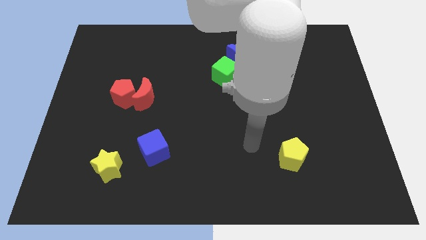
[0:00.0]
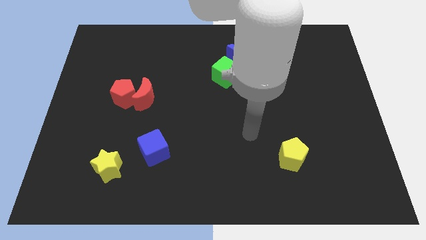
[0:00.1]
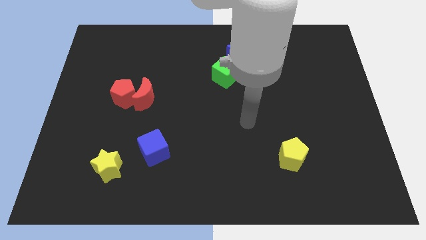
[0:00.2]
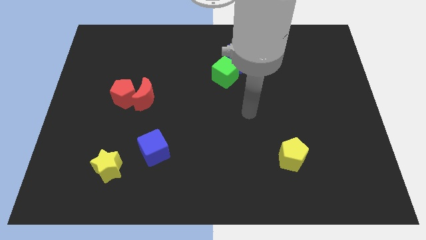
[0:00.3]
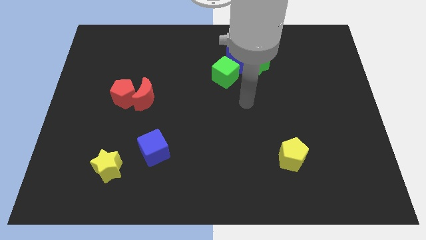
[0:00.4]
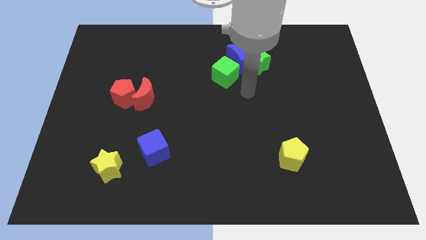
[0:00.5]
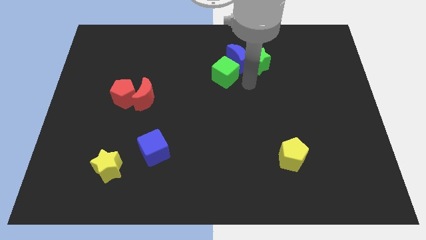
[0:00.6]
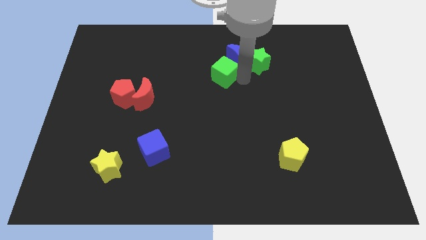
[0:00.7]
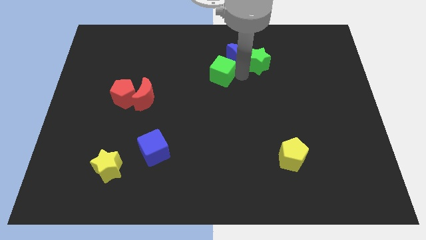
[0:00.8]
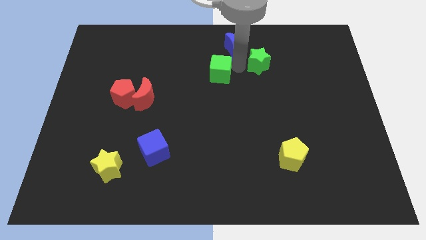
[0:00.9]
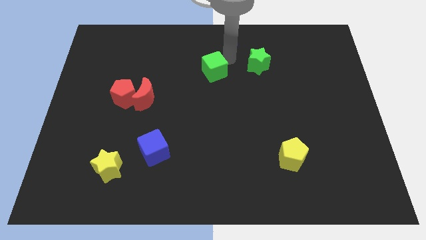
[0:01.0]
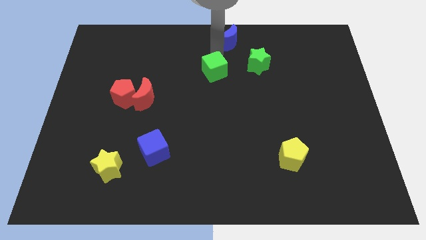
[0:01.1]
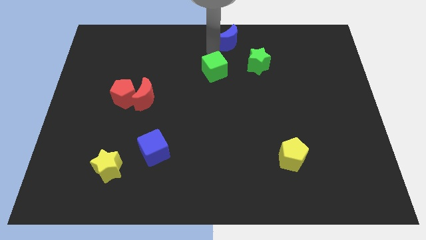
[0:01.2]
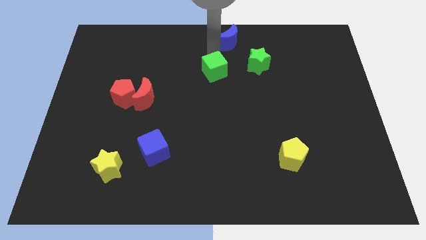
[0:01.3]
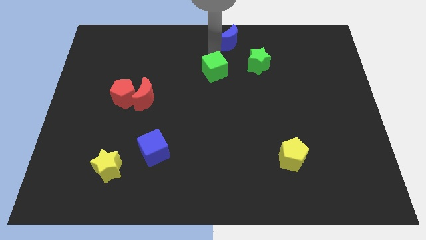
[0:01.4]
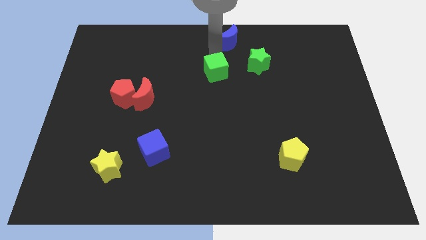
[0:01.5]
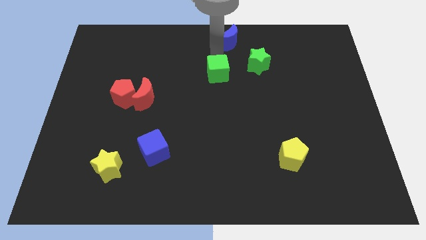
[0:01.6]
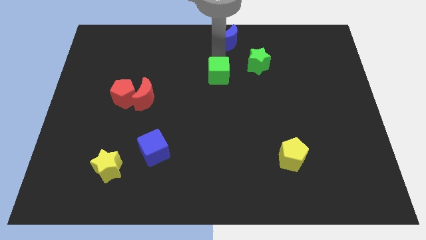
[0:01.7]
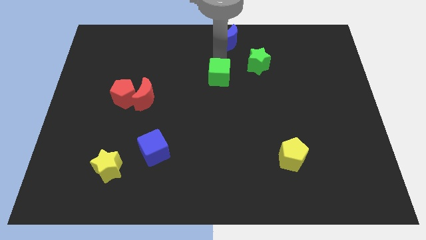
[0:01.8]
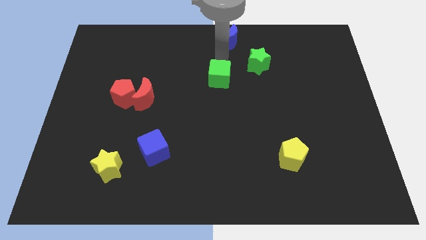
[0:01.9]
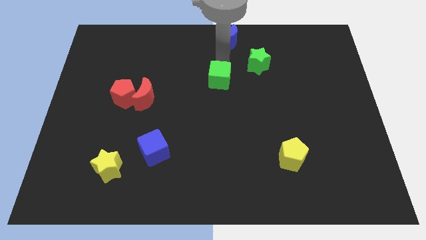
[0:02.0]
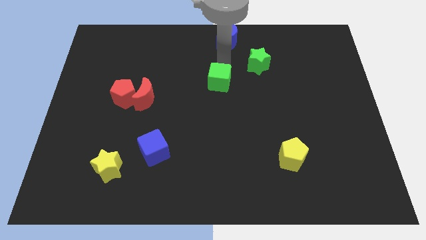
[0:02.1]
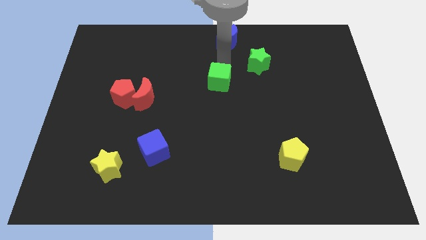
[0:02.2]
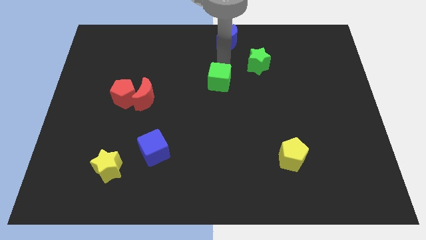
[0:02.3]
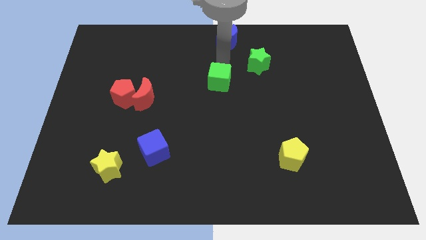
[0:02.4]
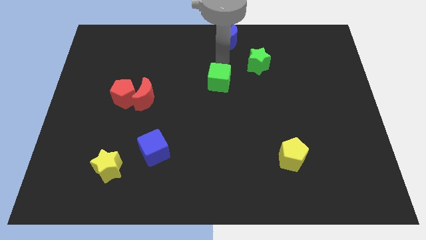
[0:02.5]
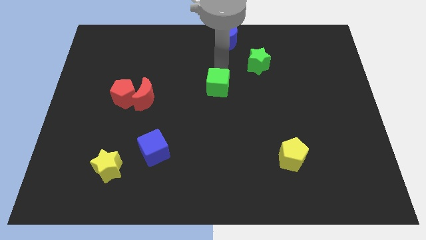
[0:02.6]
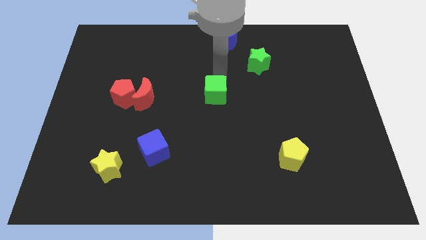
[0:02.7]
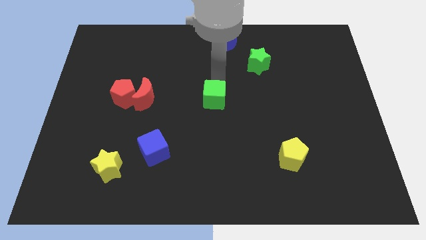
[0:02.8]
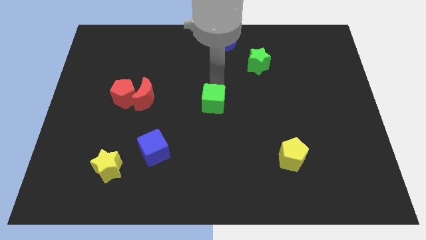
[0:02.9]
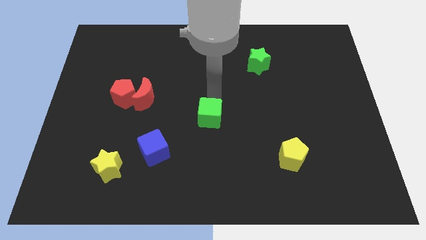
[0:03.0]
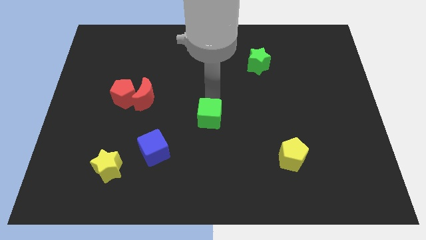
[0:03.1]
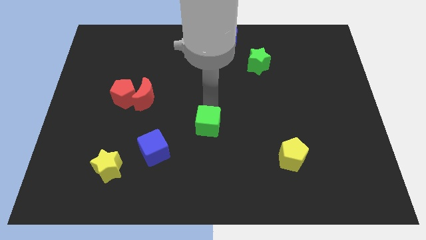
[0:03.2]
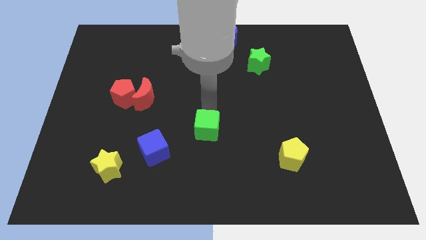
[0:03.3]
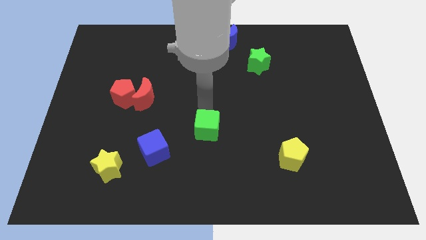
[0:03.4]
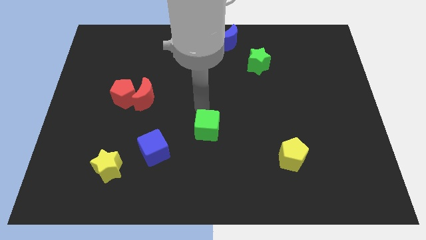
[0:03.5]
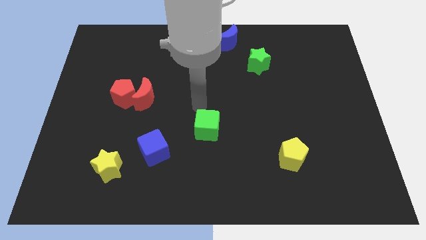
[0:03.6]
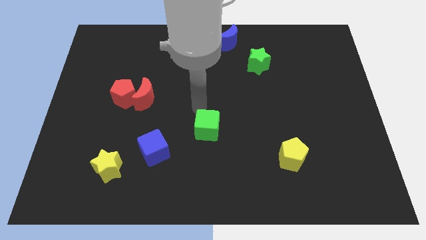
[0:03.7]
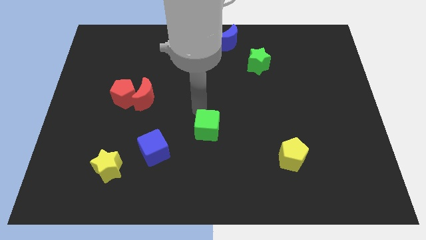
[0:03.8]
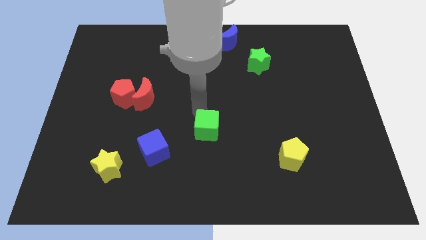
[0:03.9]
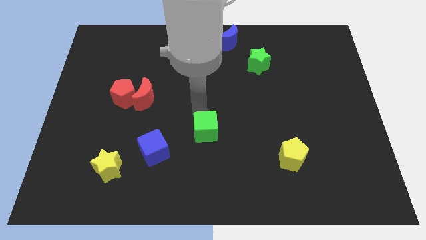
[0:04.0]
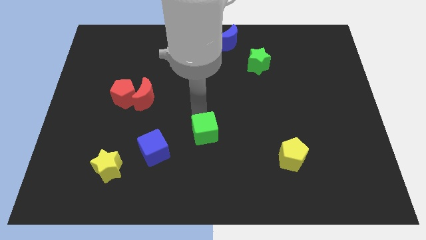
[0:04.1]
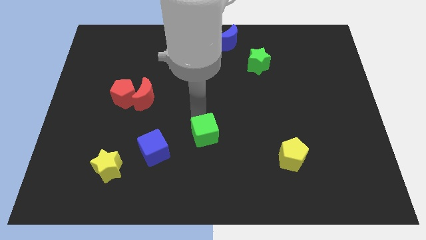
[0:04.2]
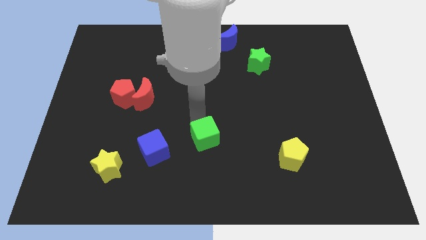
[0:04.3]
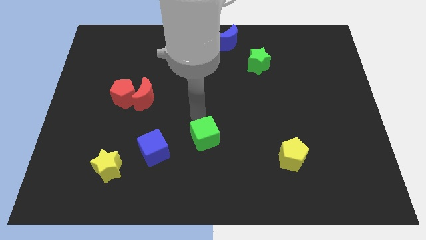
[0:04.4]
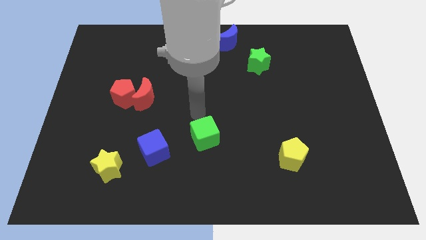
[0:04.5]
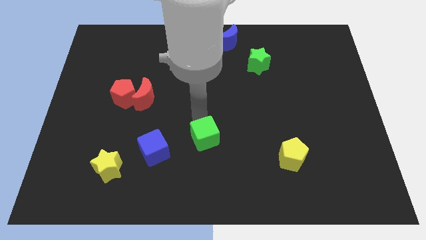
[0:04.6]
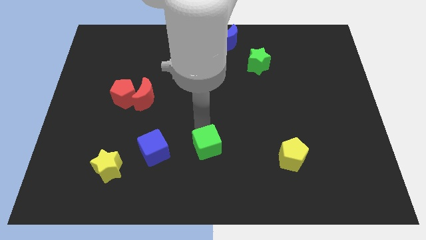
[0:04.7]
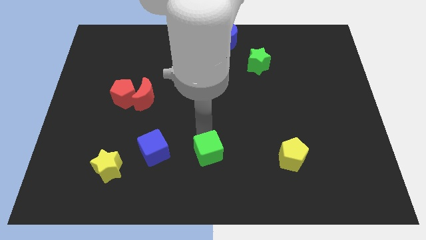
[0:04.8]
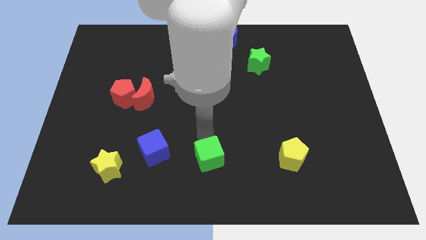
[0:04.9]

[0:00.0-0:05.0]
slide the green cube to the bottom

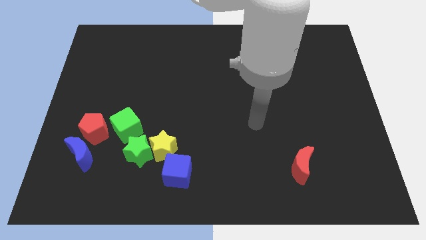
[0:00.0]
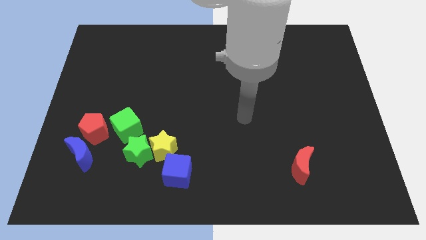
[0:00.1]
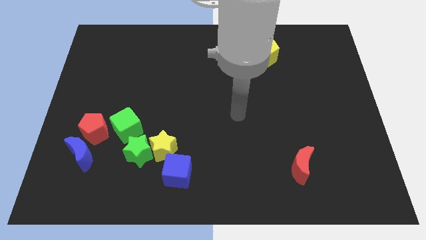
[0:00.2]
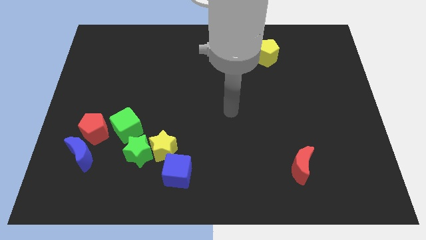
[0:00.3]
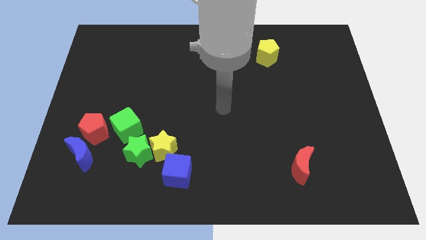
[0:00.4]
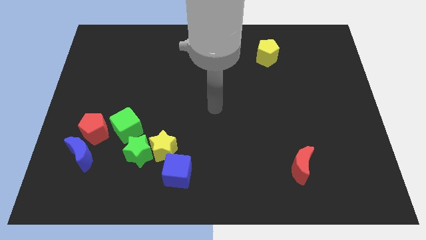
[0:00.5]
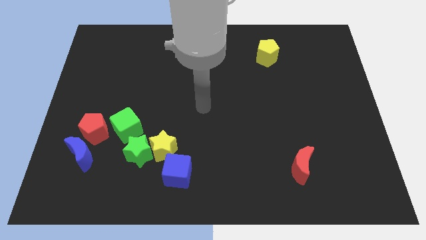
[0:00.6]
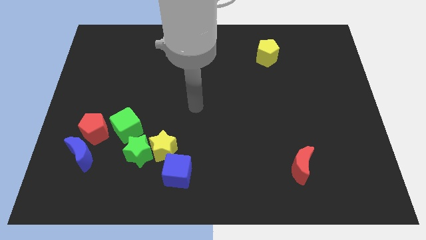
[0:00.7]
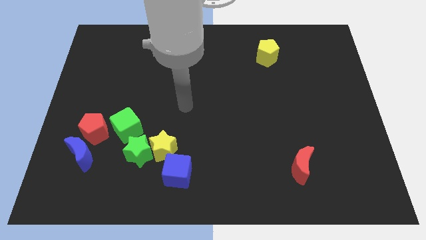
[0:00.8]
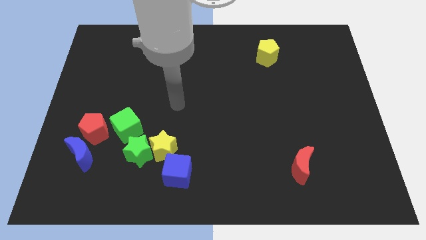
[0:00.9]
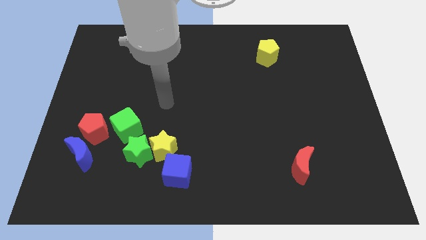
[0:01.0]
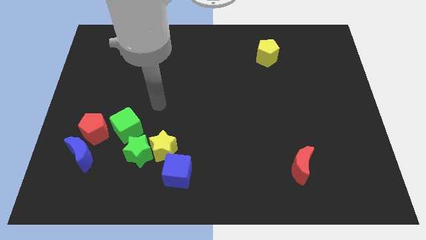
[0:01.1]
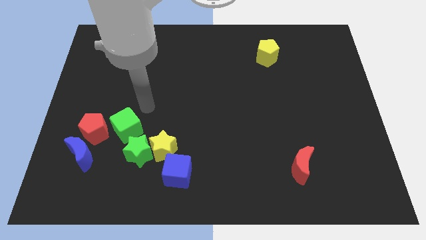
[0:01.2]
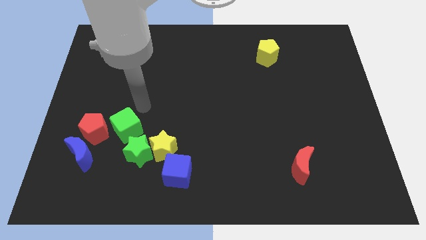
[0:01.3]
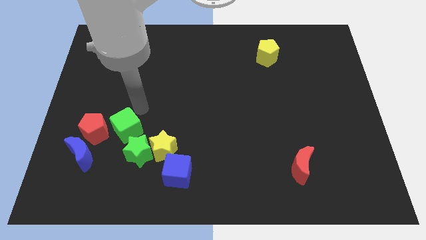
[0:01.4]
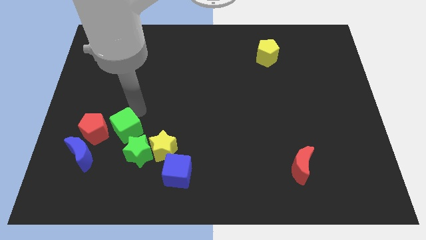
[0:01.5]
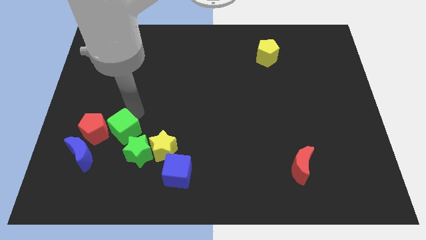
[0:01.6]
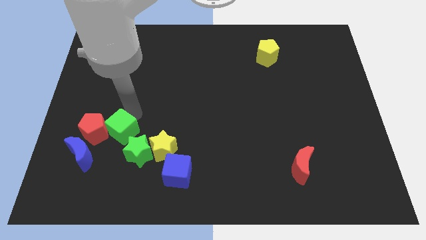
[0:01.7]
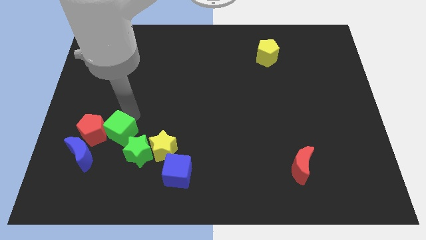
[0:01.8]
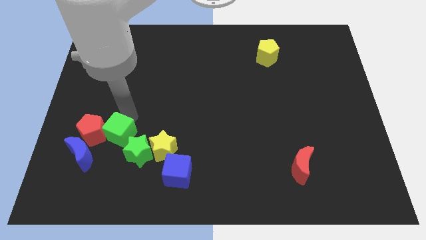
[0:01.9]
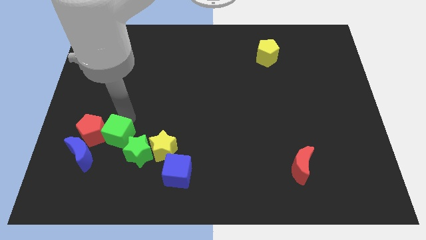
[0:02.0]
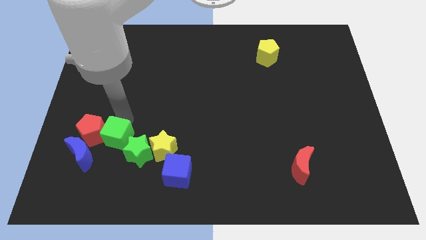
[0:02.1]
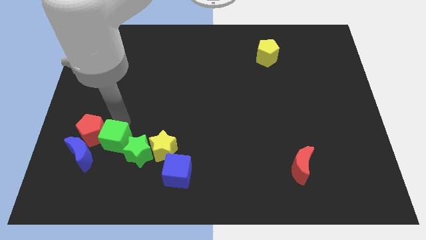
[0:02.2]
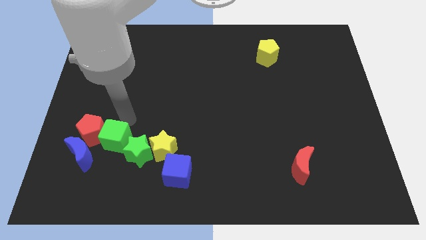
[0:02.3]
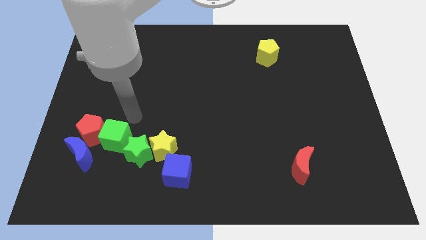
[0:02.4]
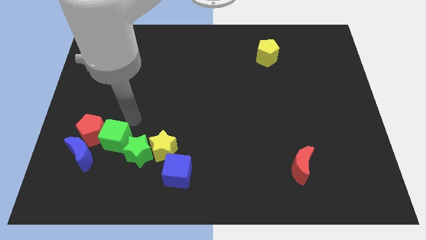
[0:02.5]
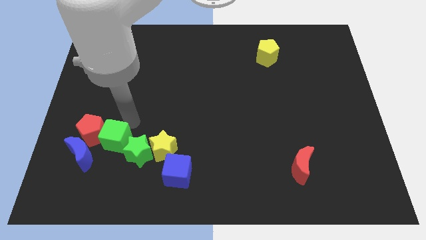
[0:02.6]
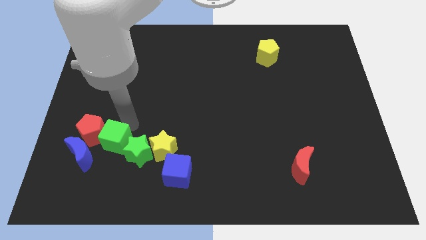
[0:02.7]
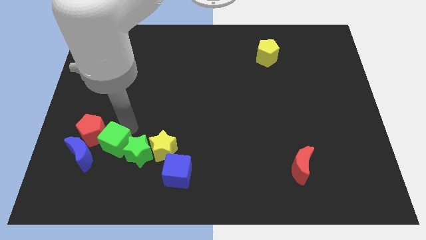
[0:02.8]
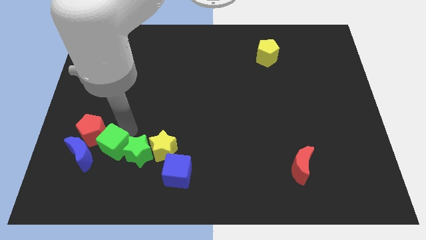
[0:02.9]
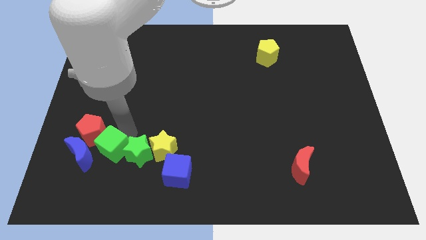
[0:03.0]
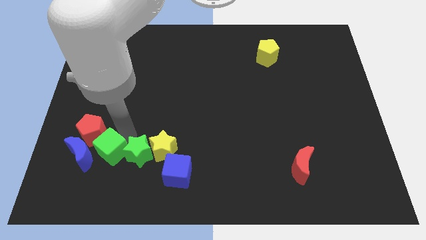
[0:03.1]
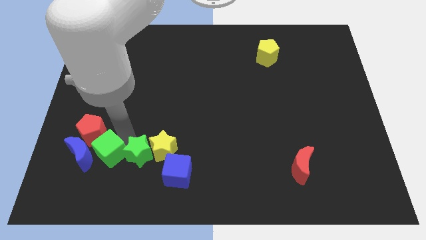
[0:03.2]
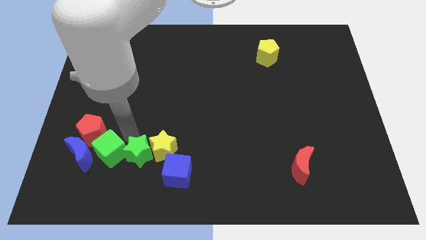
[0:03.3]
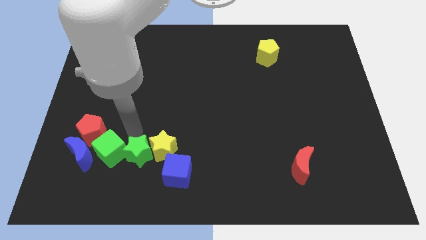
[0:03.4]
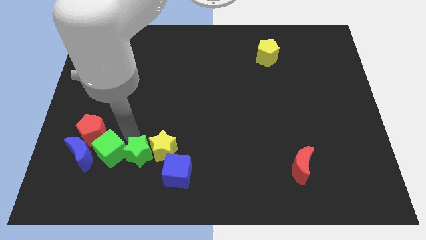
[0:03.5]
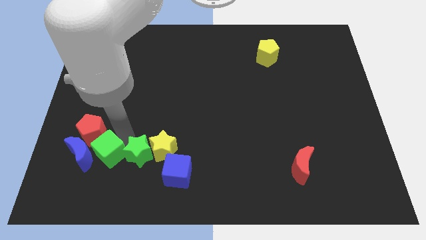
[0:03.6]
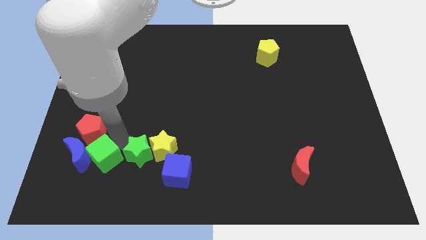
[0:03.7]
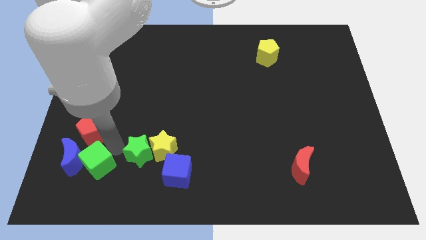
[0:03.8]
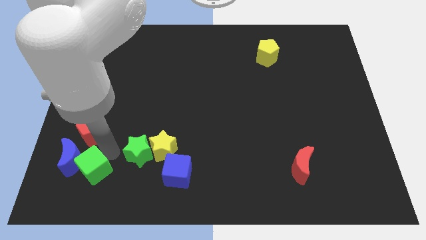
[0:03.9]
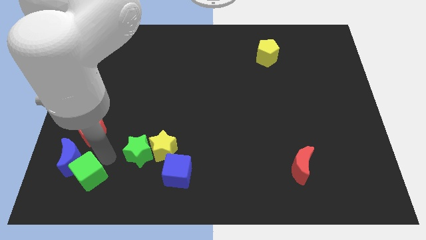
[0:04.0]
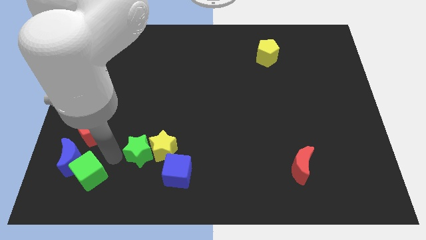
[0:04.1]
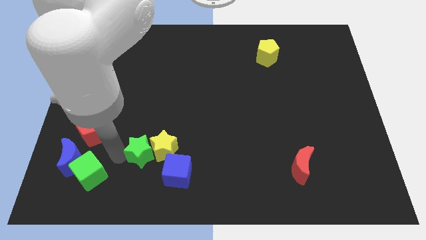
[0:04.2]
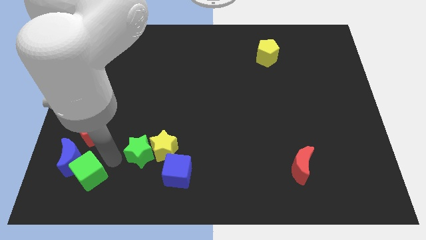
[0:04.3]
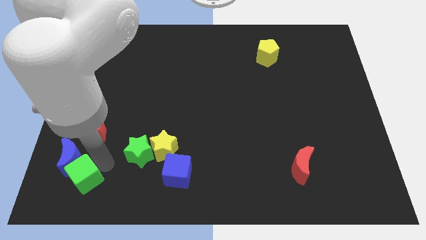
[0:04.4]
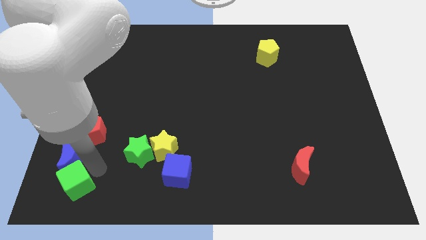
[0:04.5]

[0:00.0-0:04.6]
push the green cube to the bottom left of the board
